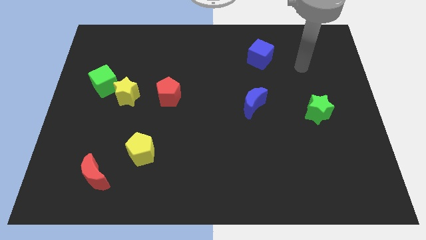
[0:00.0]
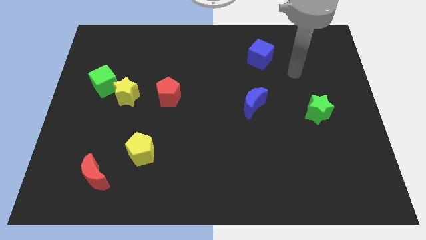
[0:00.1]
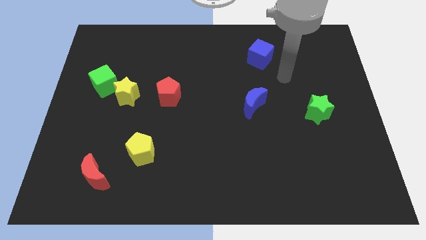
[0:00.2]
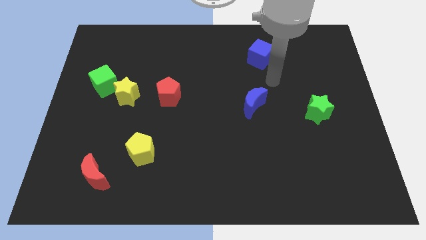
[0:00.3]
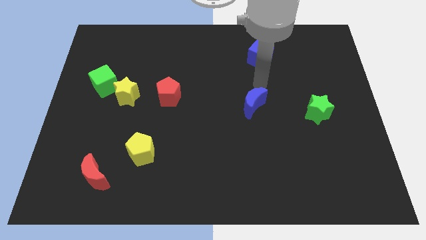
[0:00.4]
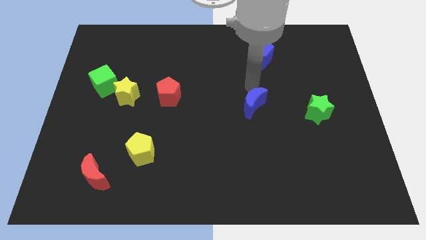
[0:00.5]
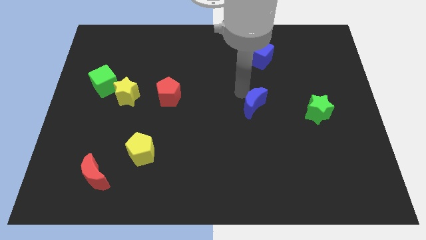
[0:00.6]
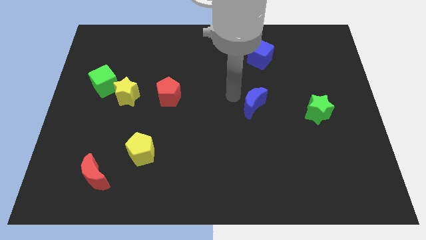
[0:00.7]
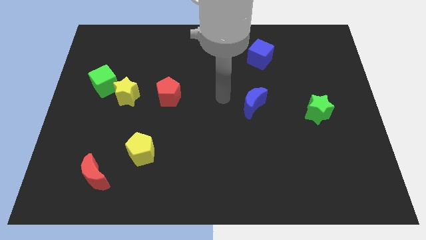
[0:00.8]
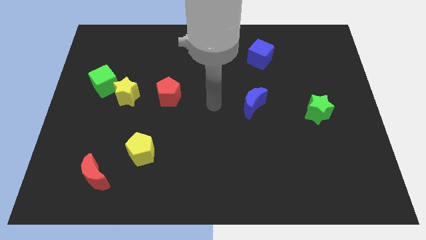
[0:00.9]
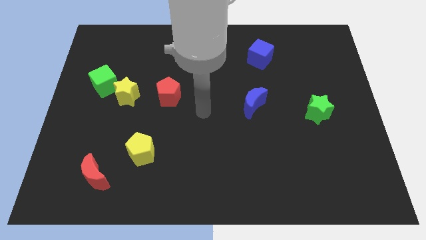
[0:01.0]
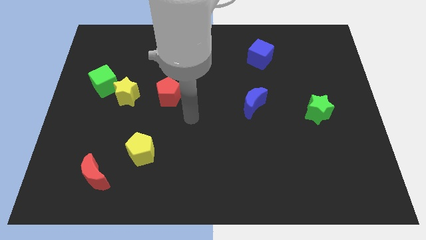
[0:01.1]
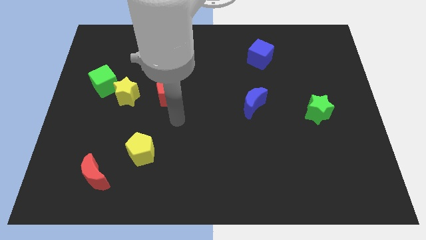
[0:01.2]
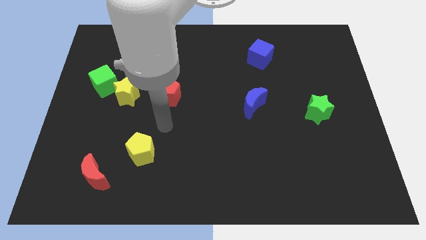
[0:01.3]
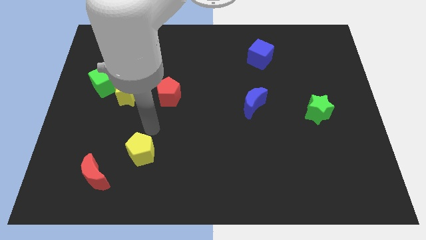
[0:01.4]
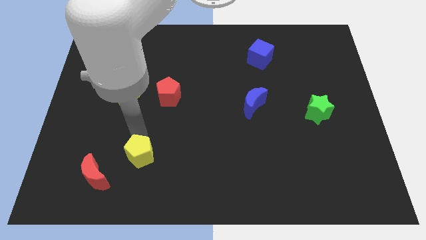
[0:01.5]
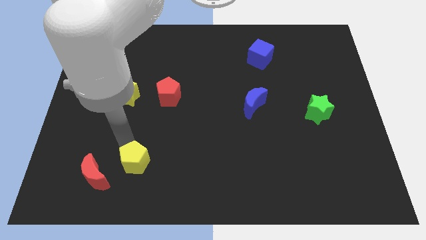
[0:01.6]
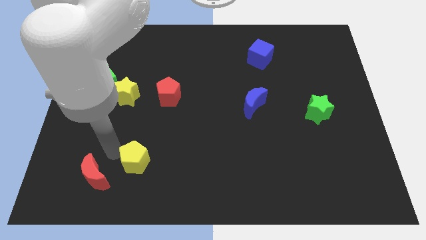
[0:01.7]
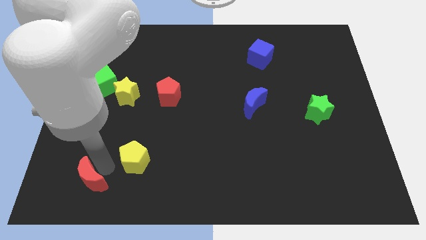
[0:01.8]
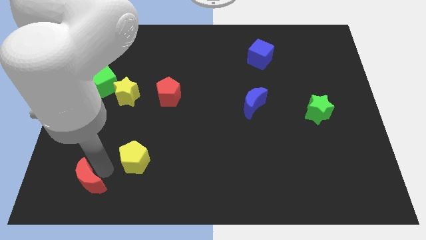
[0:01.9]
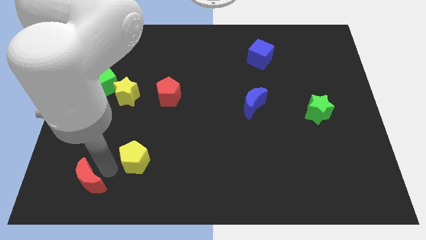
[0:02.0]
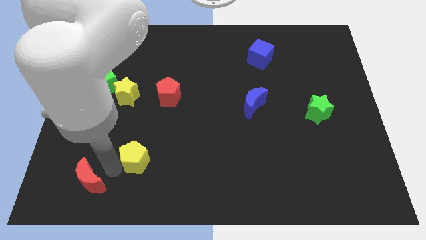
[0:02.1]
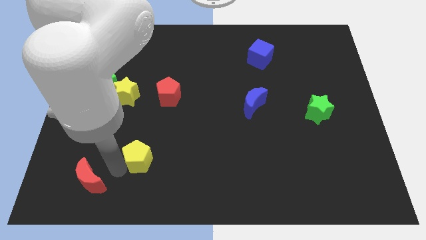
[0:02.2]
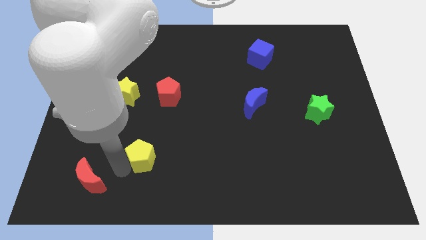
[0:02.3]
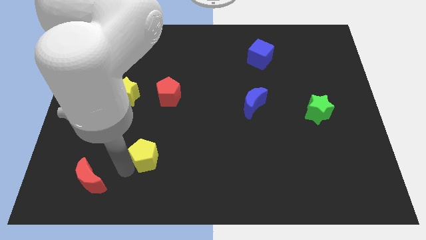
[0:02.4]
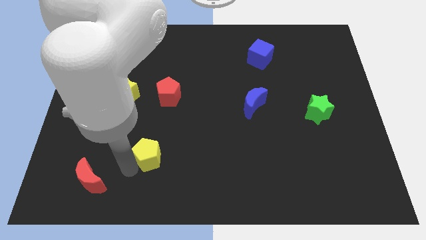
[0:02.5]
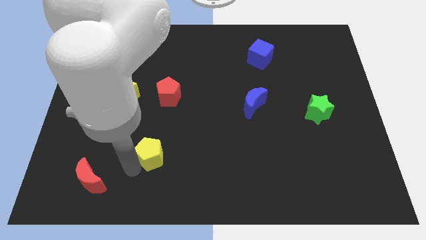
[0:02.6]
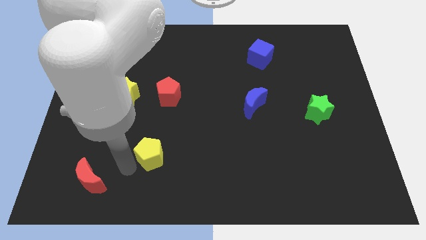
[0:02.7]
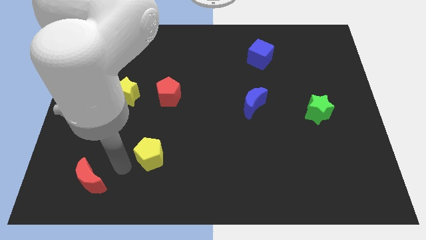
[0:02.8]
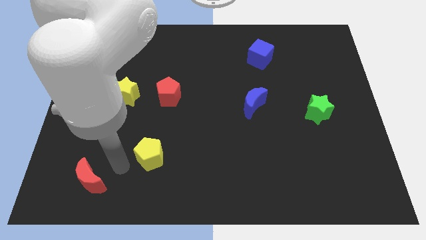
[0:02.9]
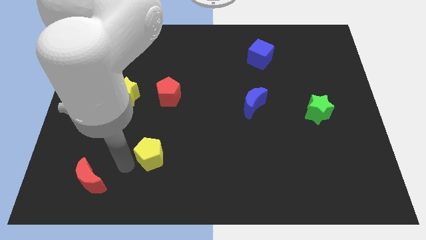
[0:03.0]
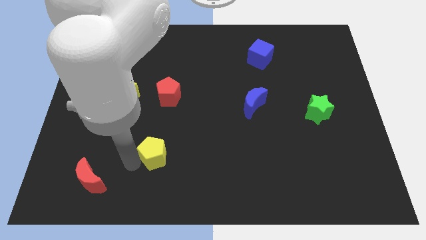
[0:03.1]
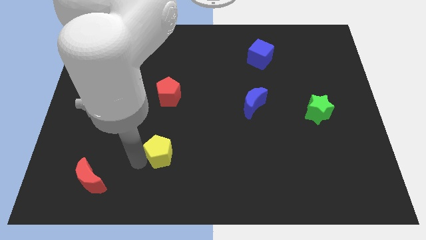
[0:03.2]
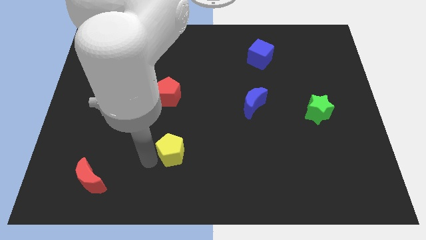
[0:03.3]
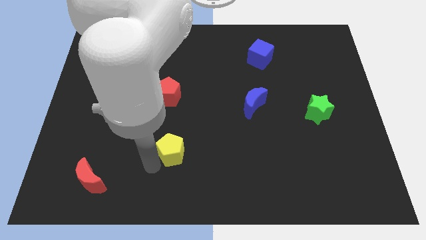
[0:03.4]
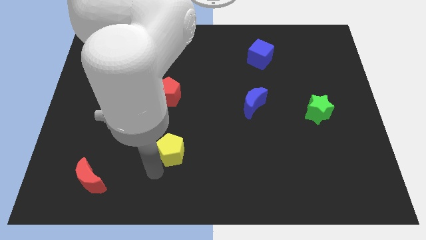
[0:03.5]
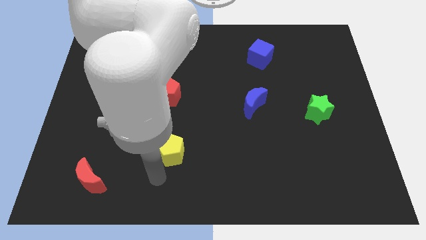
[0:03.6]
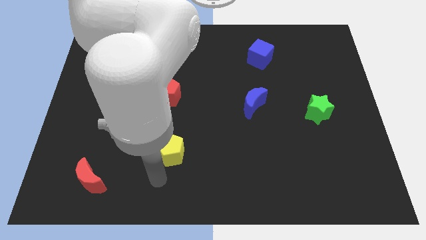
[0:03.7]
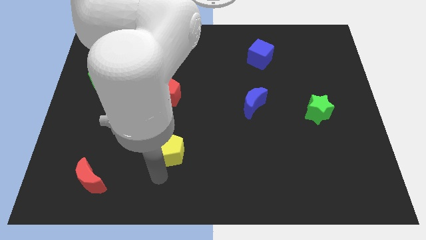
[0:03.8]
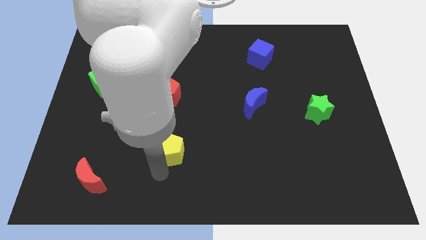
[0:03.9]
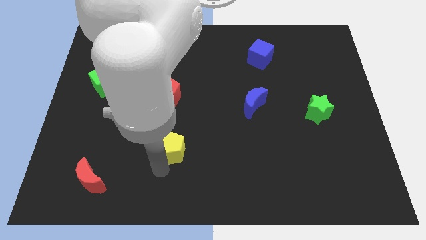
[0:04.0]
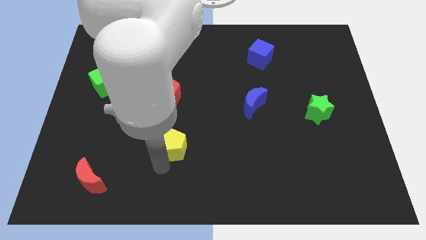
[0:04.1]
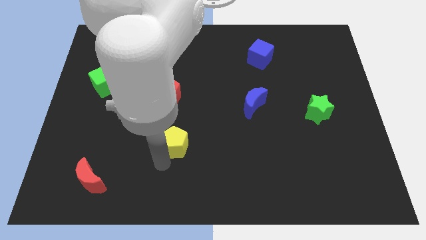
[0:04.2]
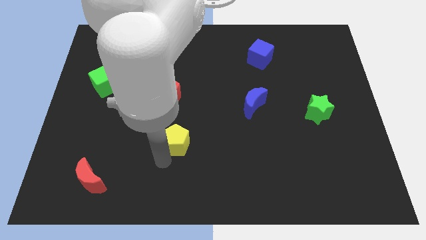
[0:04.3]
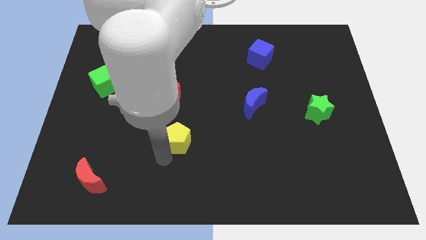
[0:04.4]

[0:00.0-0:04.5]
push the yellow pentagon up and right diagonally a little

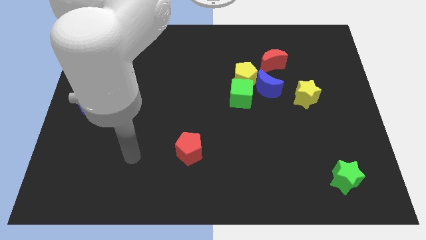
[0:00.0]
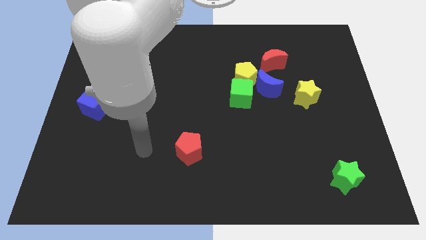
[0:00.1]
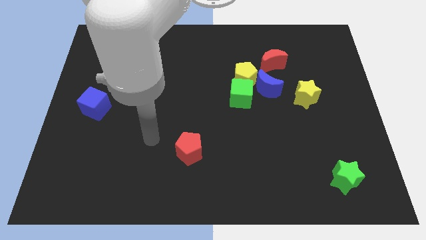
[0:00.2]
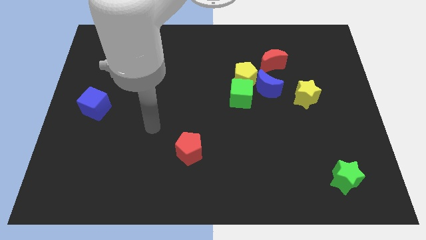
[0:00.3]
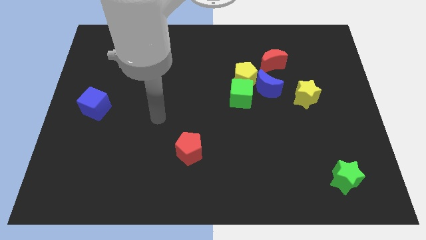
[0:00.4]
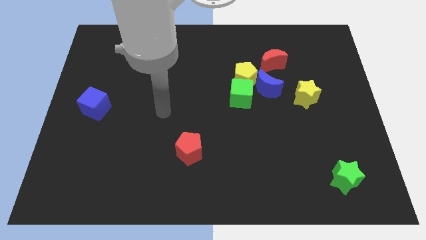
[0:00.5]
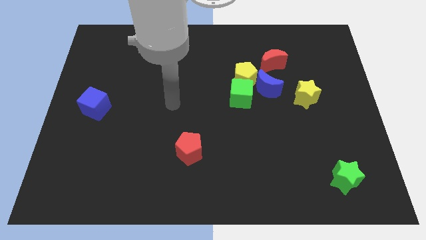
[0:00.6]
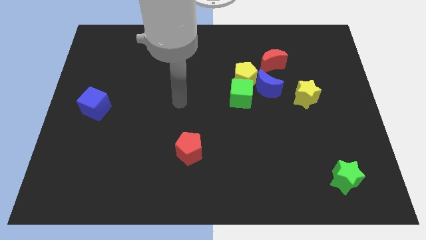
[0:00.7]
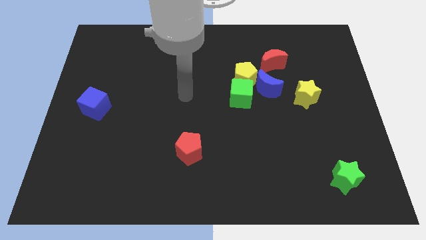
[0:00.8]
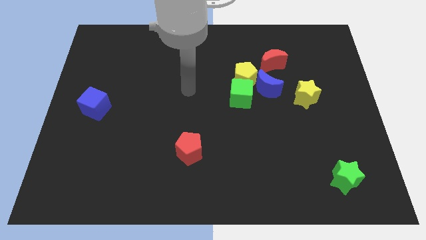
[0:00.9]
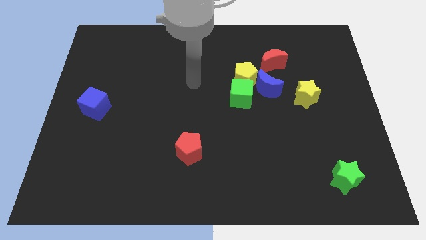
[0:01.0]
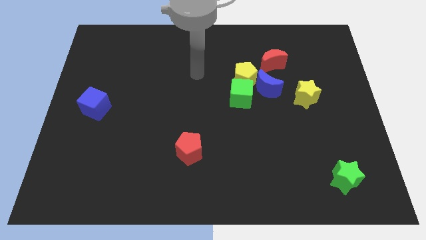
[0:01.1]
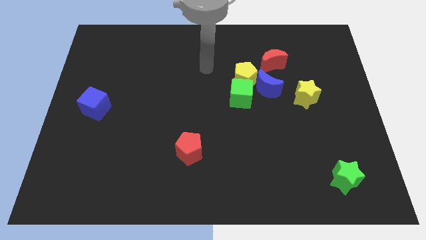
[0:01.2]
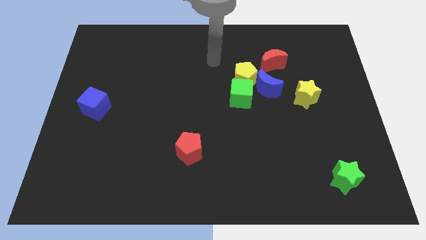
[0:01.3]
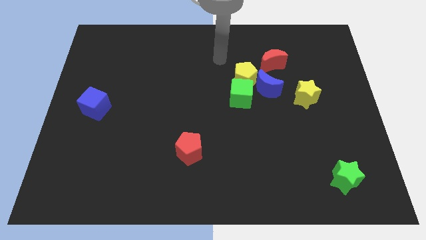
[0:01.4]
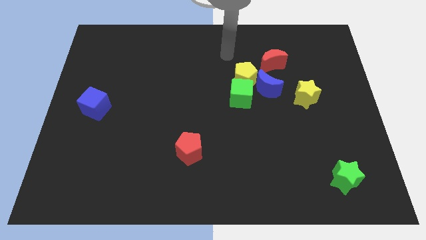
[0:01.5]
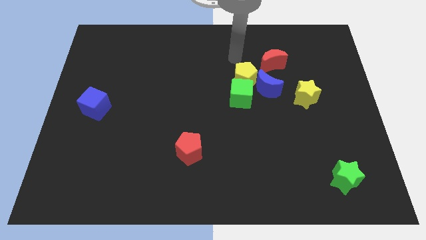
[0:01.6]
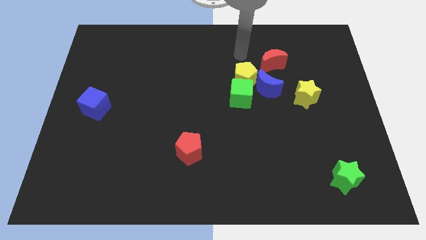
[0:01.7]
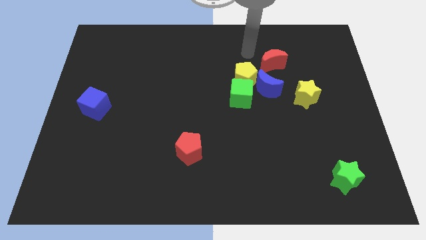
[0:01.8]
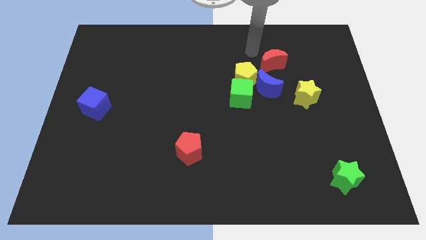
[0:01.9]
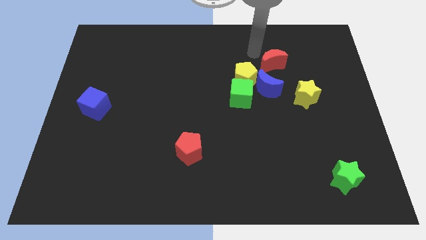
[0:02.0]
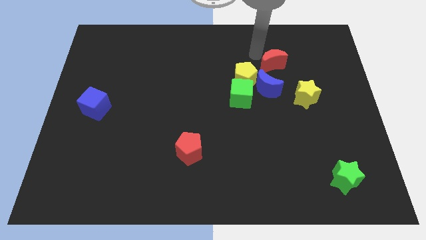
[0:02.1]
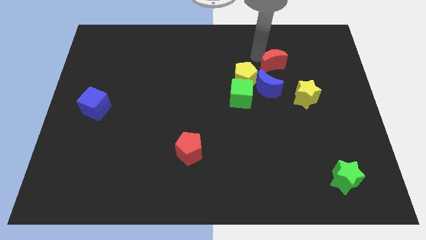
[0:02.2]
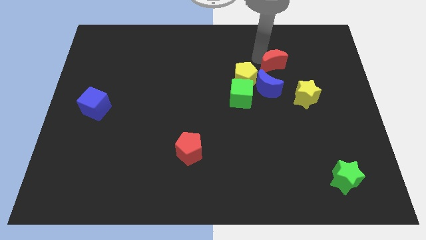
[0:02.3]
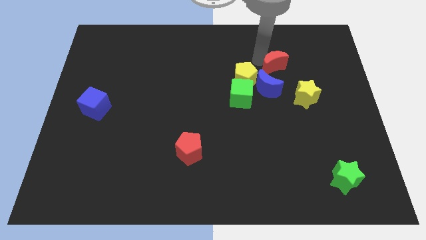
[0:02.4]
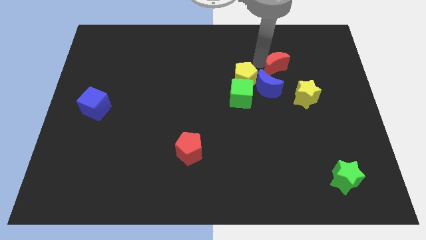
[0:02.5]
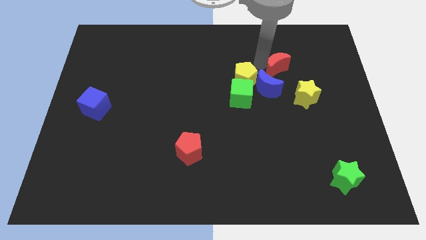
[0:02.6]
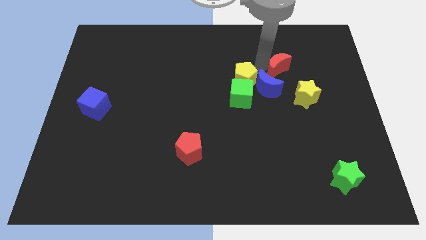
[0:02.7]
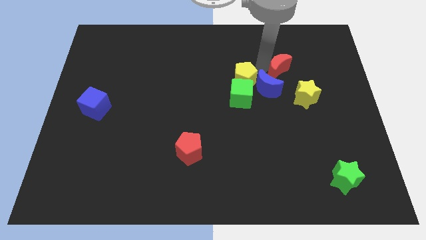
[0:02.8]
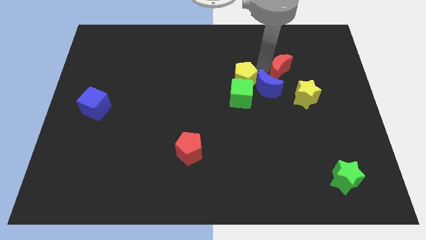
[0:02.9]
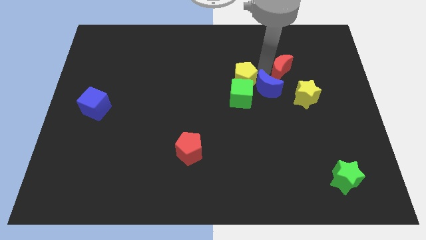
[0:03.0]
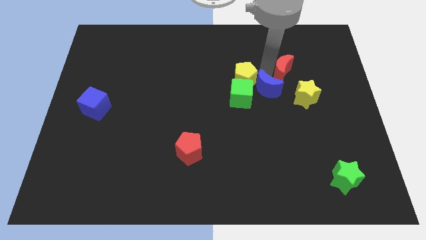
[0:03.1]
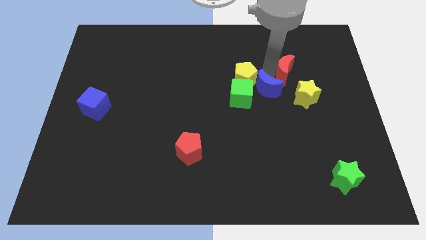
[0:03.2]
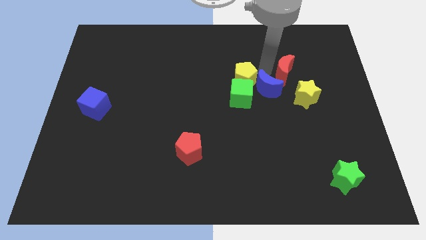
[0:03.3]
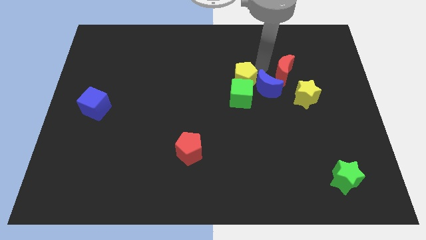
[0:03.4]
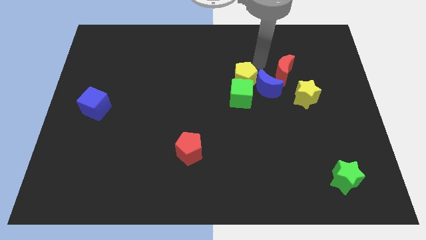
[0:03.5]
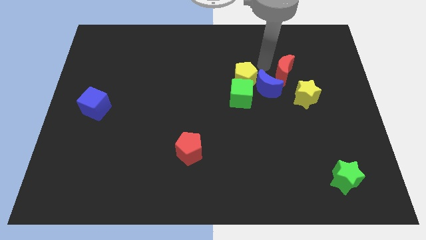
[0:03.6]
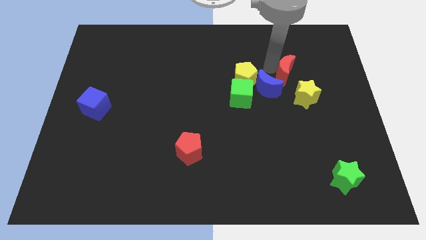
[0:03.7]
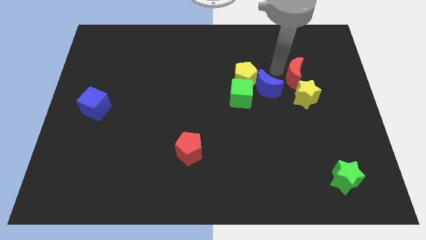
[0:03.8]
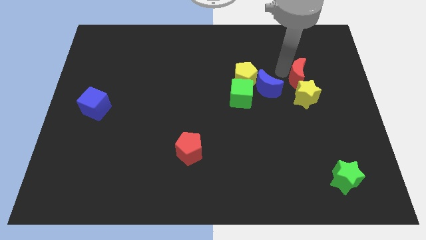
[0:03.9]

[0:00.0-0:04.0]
move the red moon diagonally downwards and right slightly
